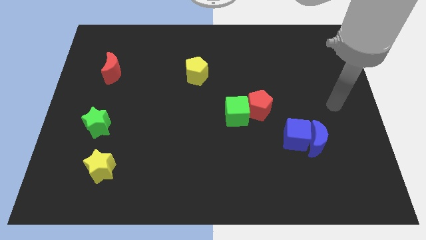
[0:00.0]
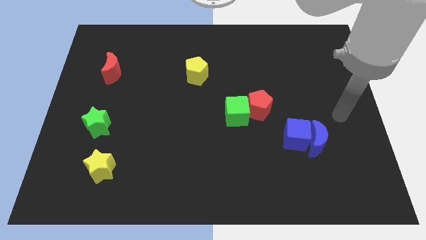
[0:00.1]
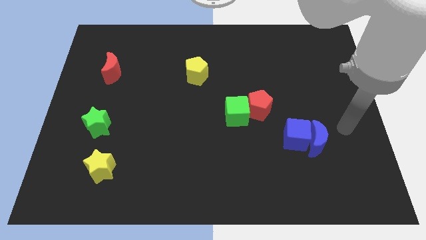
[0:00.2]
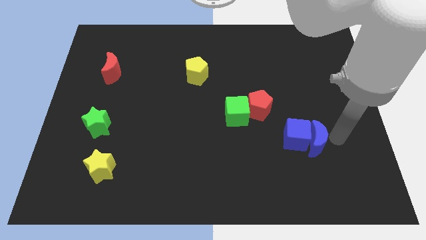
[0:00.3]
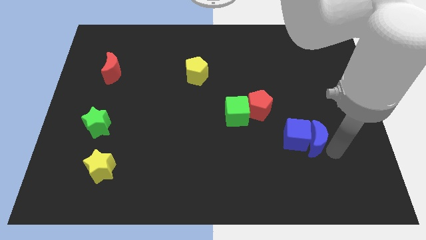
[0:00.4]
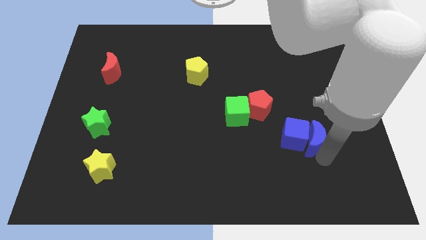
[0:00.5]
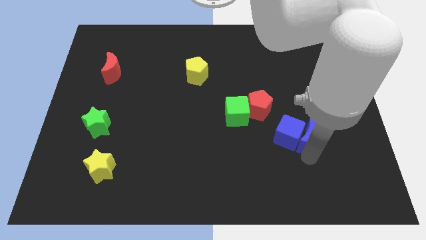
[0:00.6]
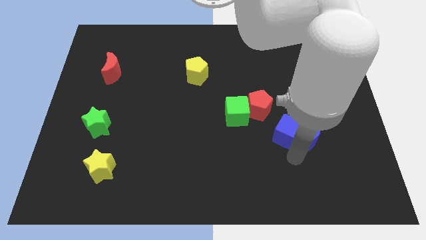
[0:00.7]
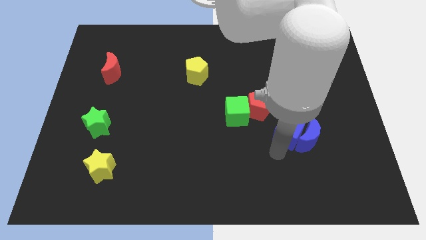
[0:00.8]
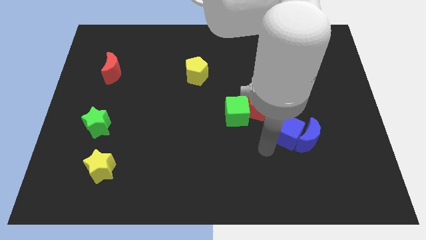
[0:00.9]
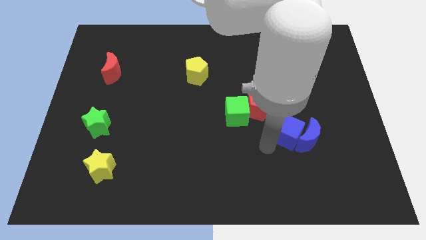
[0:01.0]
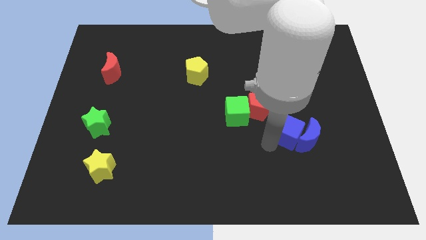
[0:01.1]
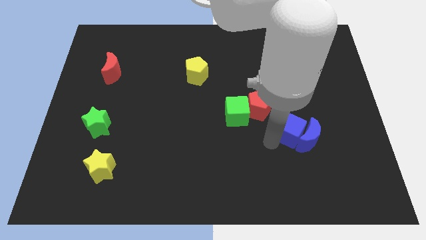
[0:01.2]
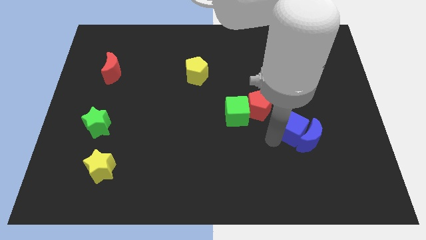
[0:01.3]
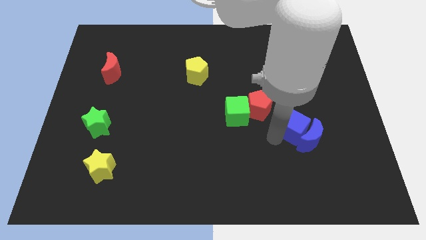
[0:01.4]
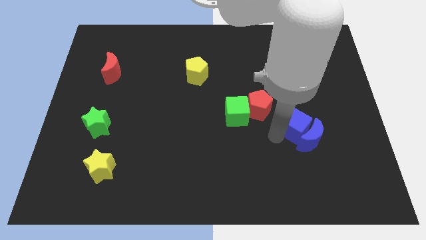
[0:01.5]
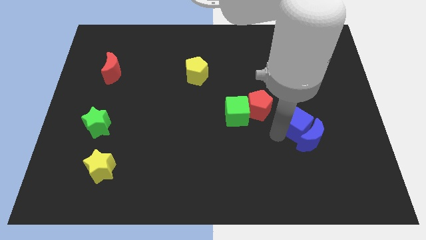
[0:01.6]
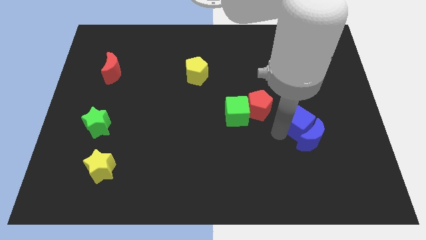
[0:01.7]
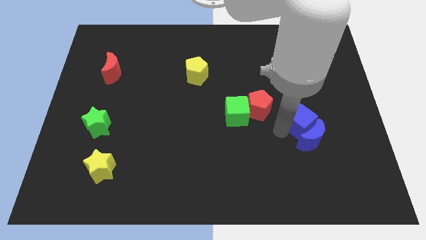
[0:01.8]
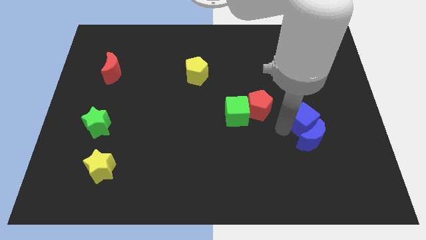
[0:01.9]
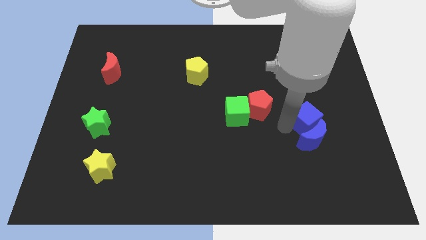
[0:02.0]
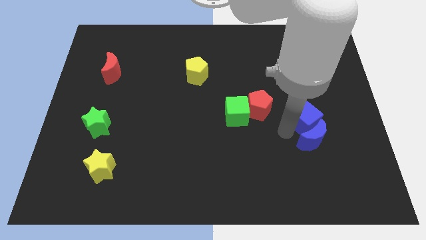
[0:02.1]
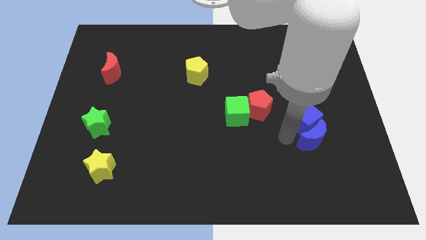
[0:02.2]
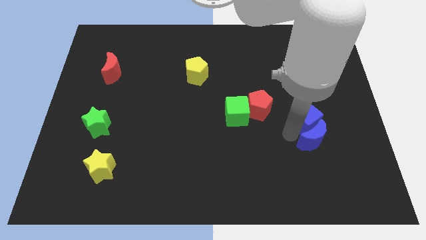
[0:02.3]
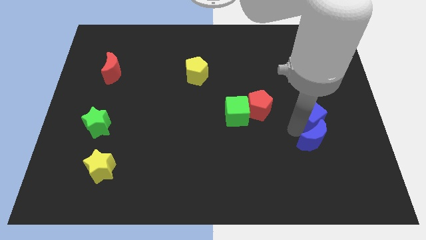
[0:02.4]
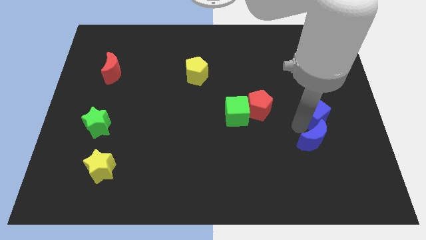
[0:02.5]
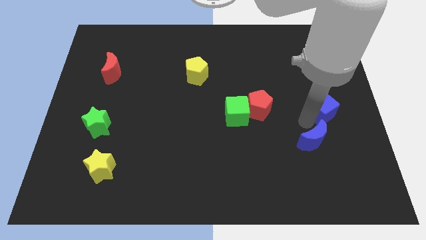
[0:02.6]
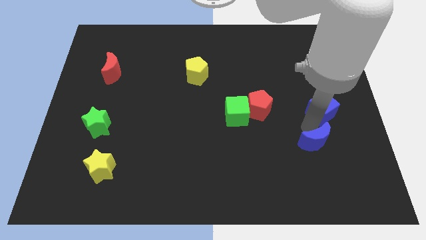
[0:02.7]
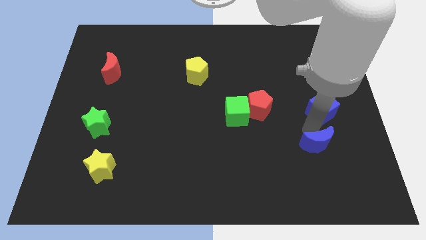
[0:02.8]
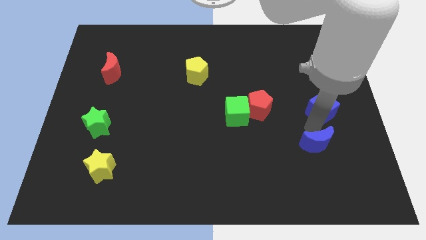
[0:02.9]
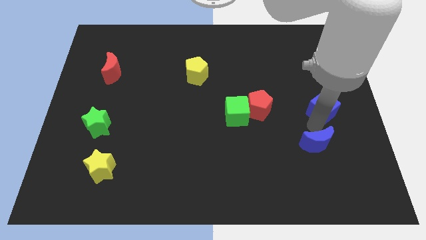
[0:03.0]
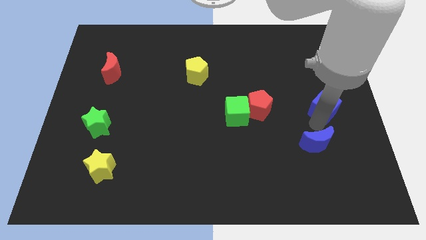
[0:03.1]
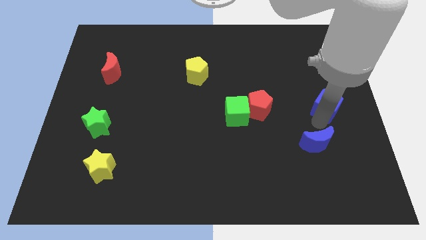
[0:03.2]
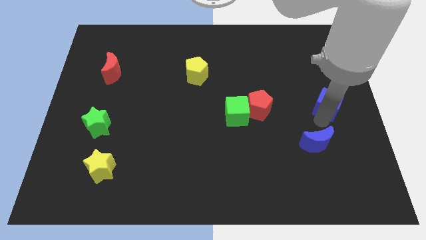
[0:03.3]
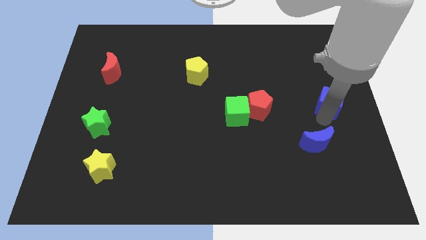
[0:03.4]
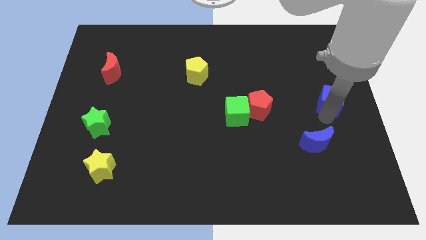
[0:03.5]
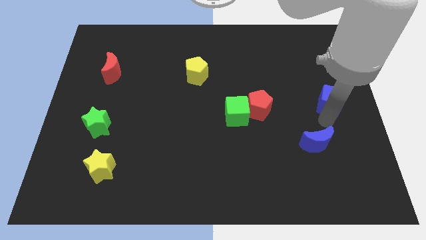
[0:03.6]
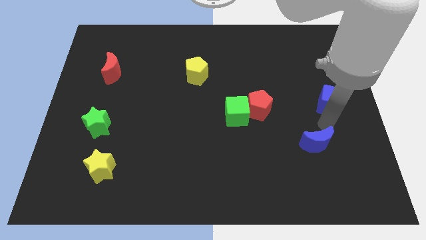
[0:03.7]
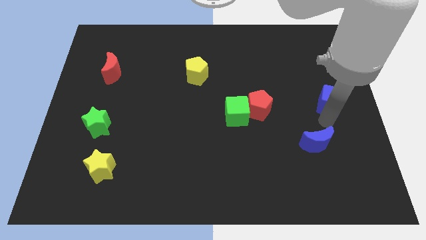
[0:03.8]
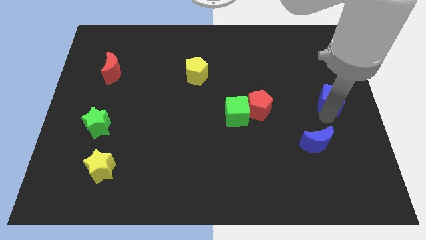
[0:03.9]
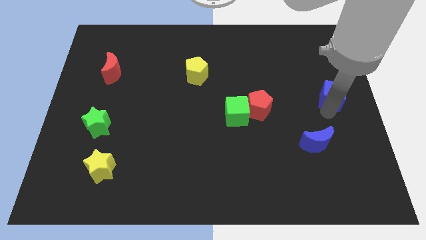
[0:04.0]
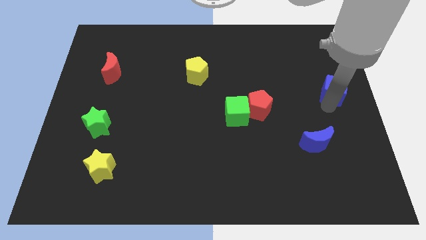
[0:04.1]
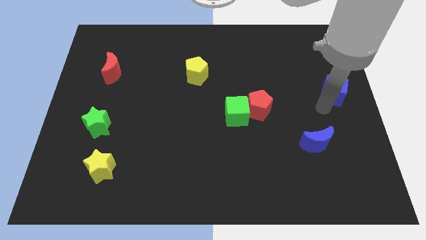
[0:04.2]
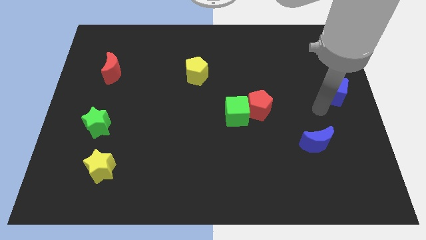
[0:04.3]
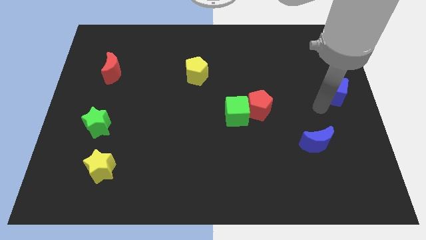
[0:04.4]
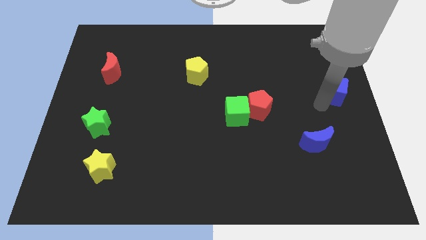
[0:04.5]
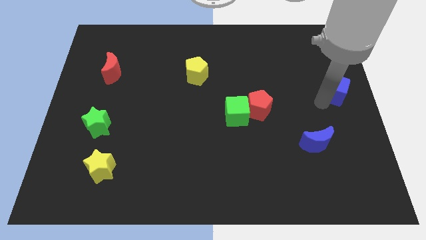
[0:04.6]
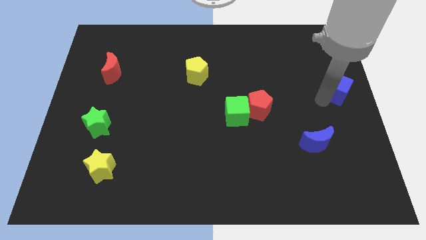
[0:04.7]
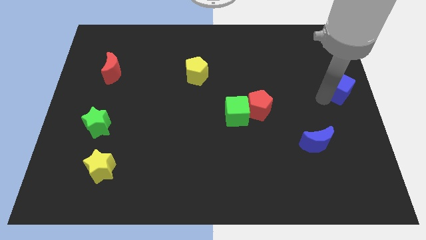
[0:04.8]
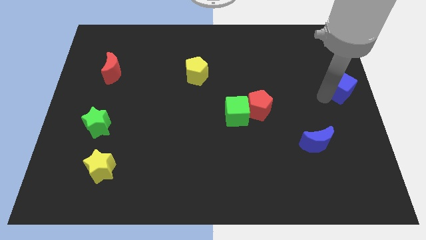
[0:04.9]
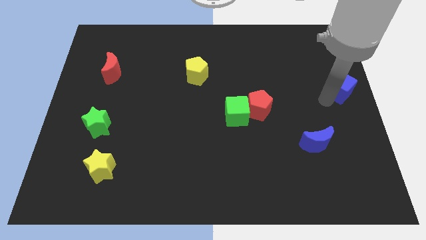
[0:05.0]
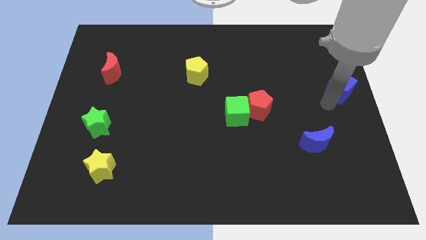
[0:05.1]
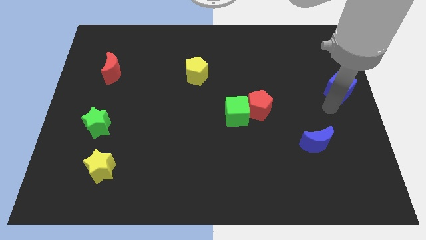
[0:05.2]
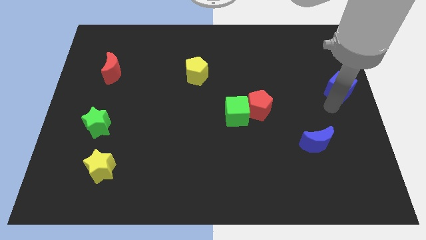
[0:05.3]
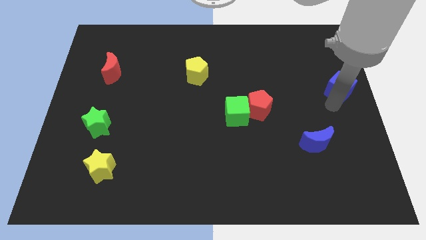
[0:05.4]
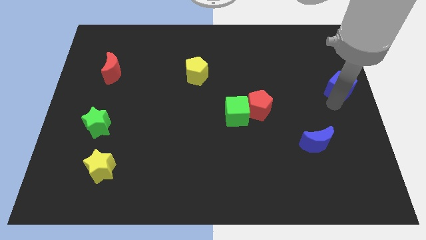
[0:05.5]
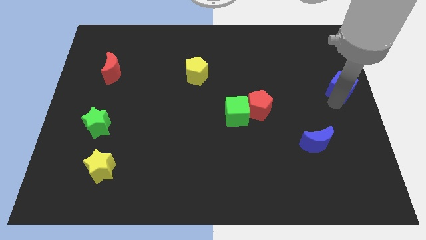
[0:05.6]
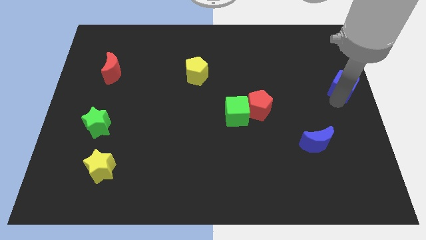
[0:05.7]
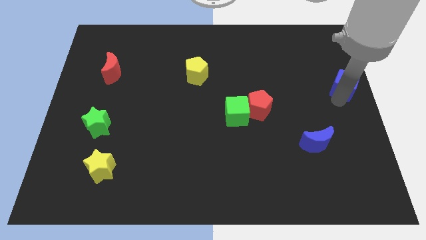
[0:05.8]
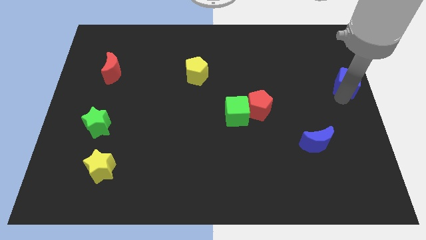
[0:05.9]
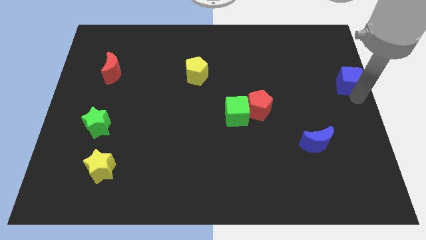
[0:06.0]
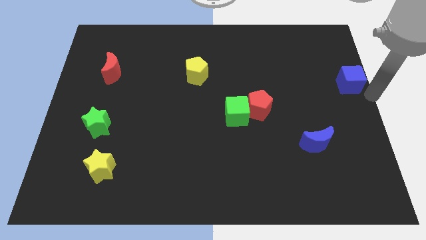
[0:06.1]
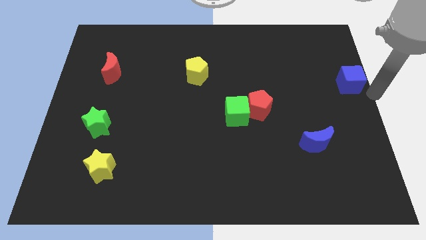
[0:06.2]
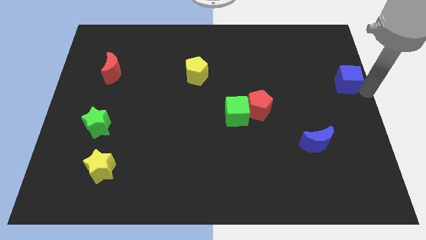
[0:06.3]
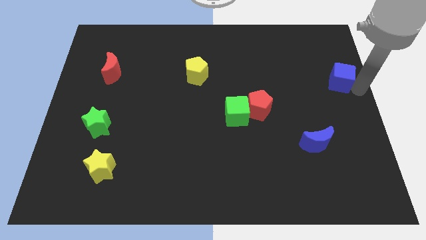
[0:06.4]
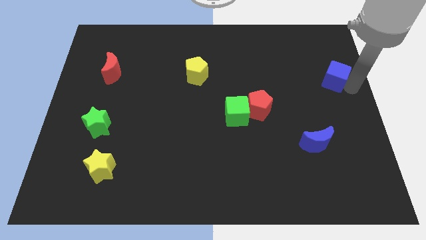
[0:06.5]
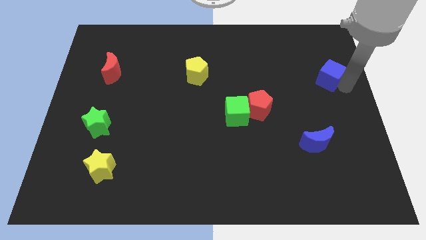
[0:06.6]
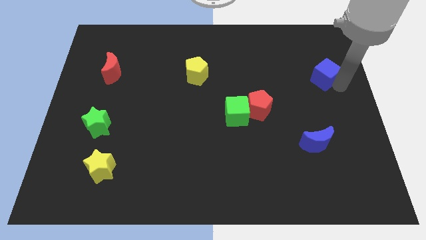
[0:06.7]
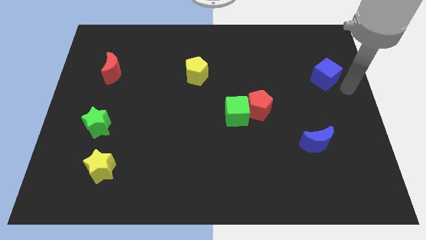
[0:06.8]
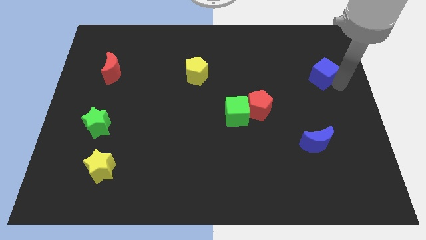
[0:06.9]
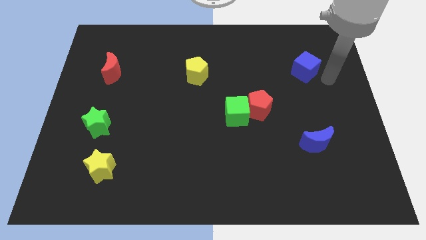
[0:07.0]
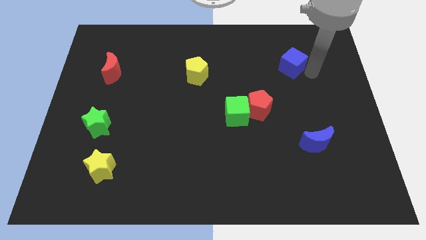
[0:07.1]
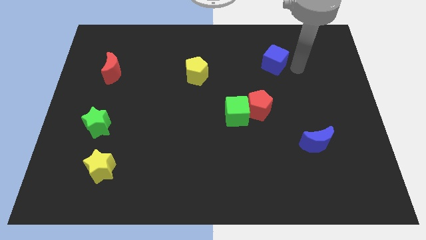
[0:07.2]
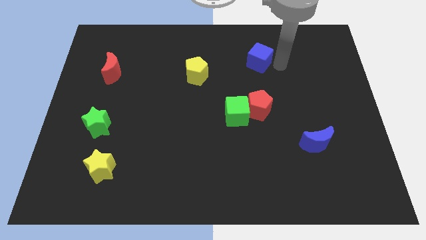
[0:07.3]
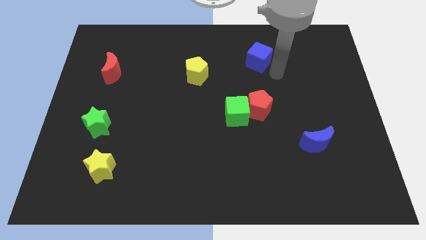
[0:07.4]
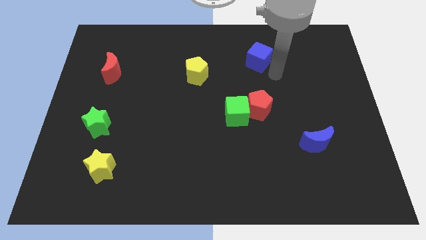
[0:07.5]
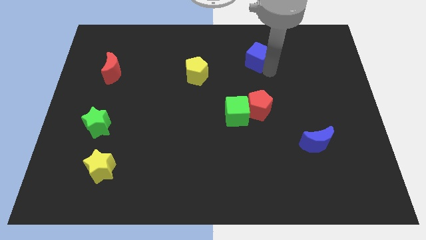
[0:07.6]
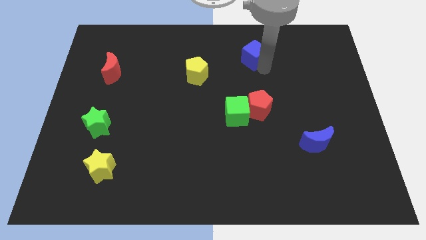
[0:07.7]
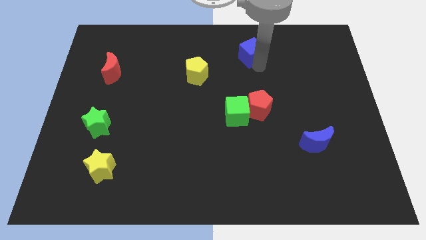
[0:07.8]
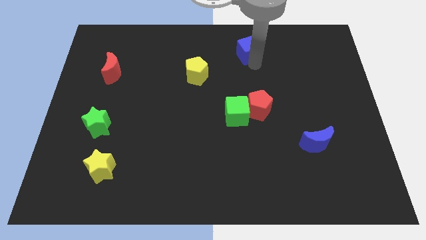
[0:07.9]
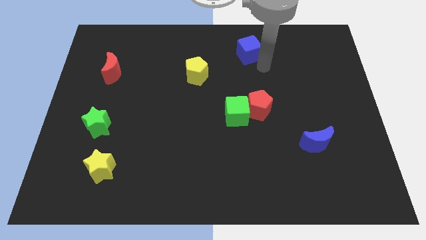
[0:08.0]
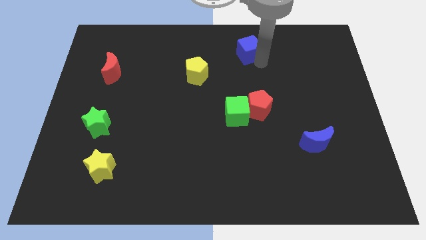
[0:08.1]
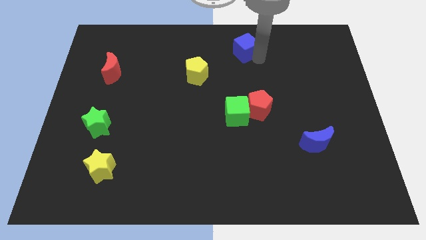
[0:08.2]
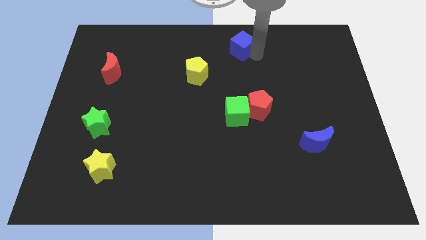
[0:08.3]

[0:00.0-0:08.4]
slide the blue cube to the top side
